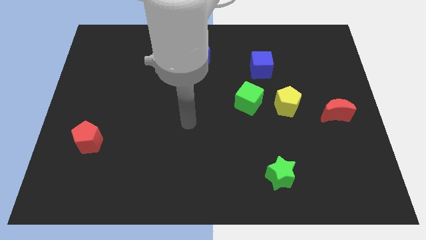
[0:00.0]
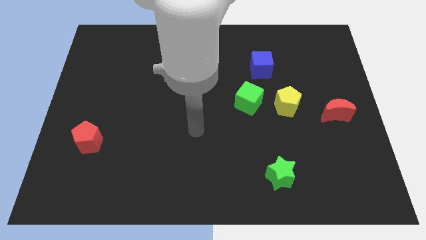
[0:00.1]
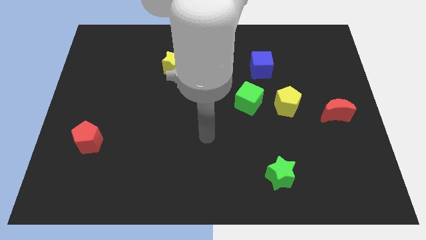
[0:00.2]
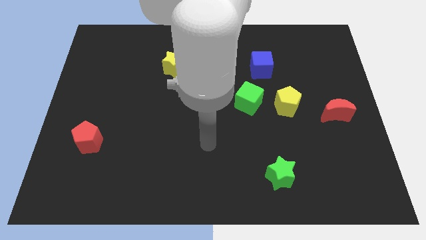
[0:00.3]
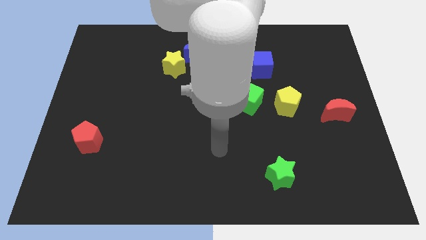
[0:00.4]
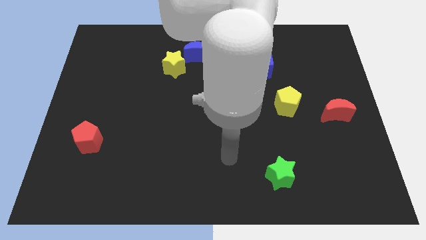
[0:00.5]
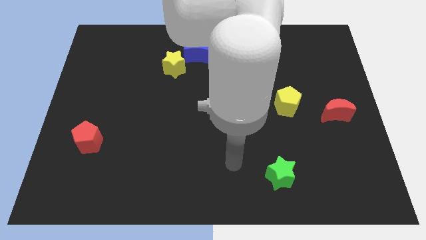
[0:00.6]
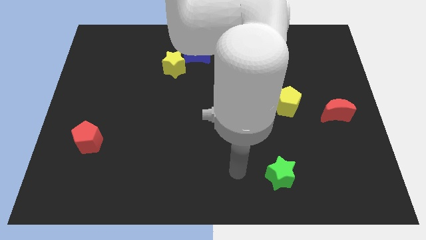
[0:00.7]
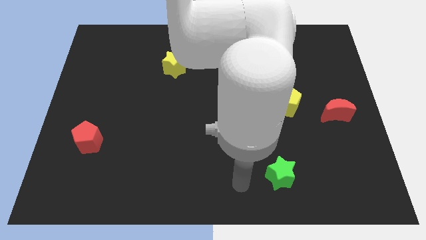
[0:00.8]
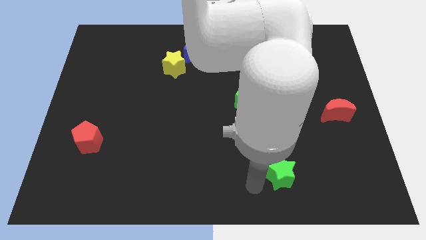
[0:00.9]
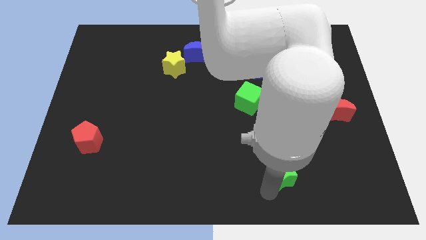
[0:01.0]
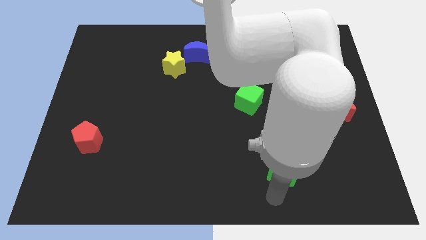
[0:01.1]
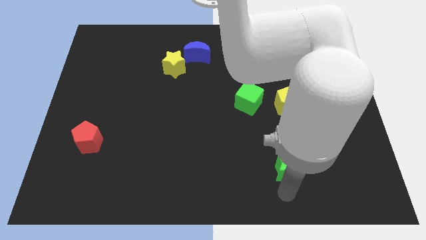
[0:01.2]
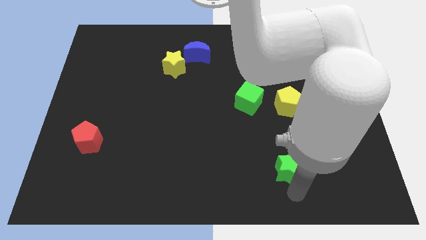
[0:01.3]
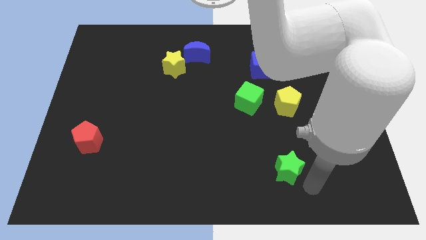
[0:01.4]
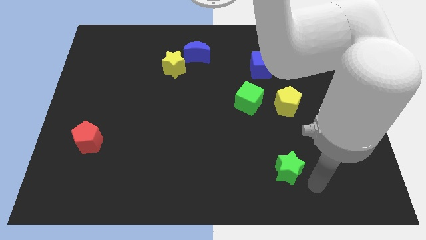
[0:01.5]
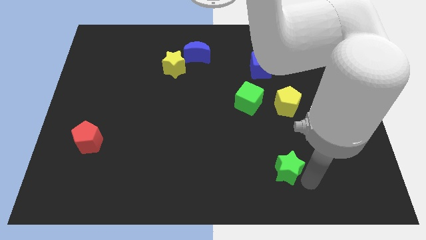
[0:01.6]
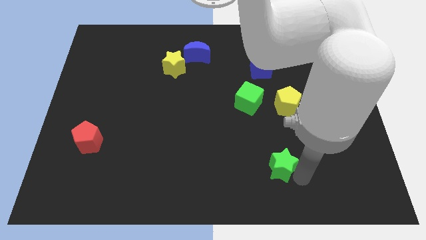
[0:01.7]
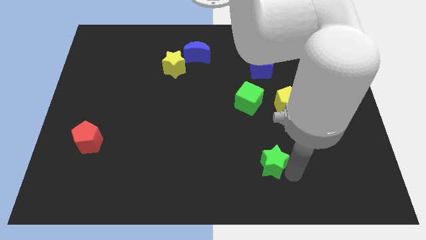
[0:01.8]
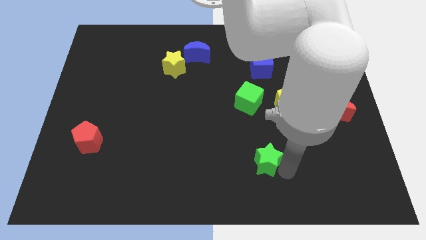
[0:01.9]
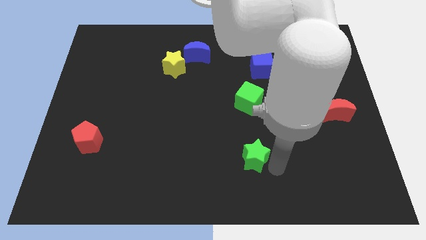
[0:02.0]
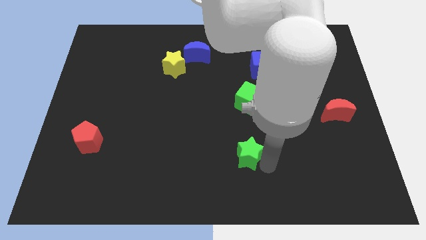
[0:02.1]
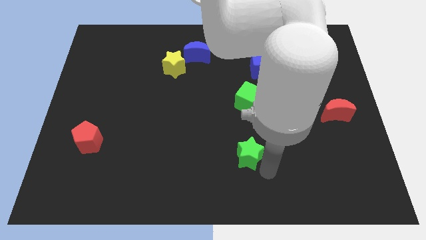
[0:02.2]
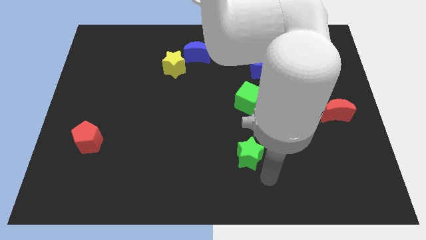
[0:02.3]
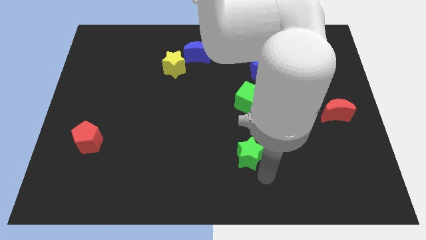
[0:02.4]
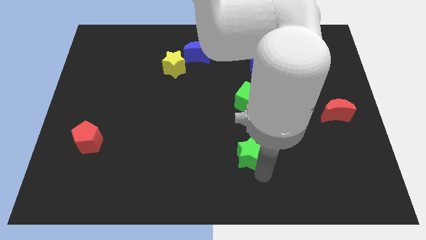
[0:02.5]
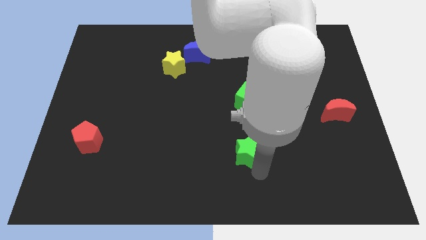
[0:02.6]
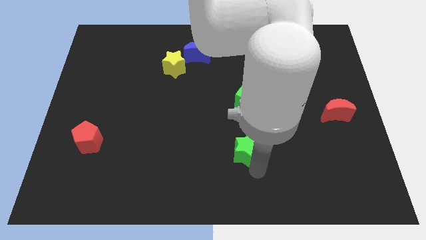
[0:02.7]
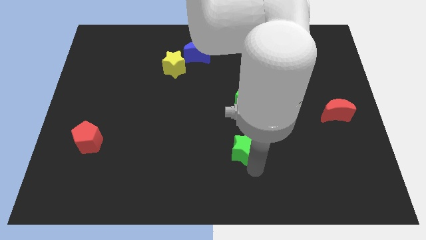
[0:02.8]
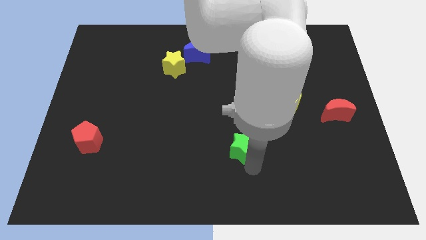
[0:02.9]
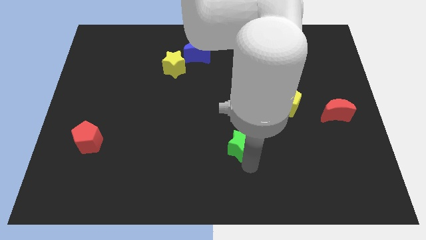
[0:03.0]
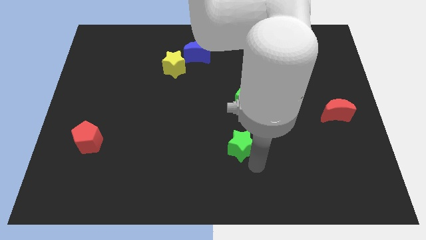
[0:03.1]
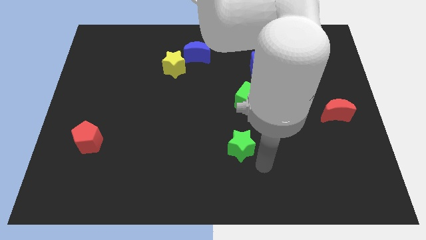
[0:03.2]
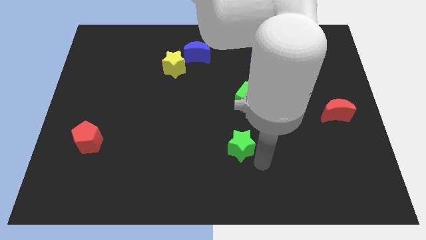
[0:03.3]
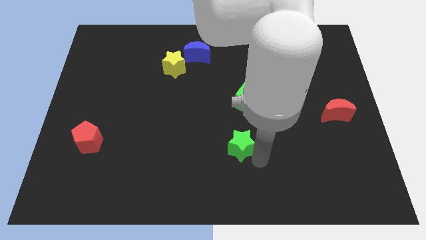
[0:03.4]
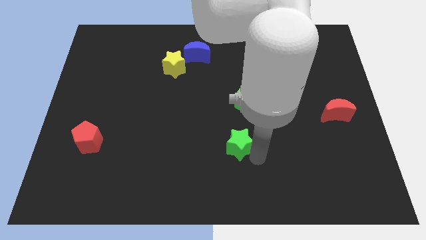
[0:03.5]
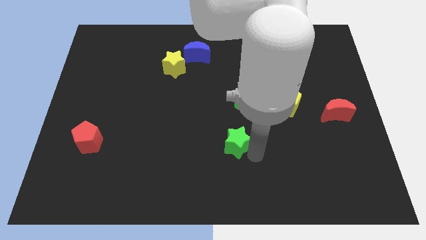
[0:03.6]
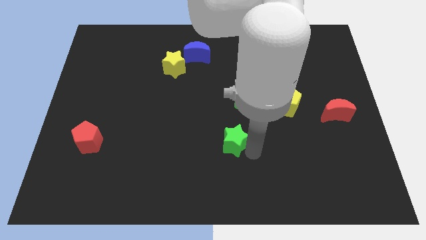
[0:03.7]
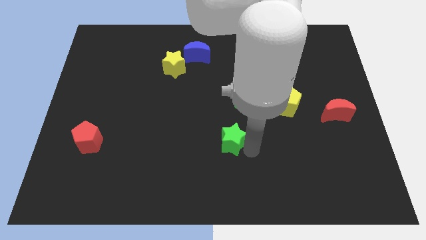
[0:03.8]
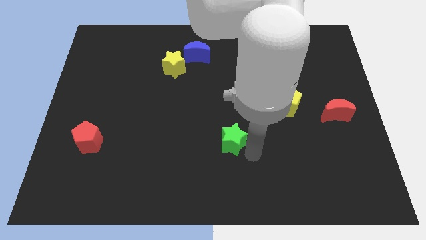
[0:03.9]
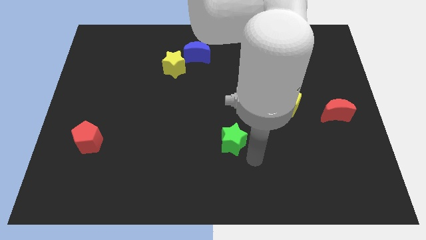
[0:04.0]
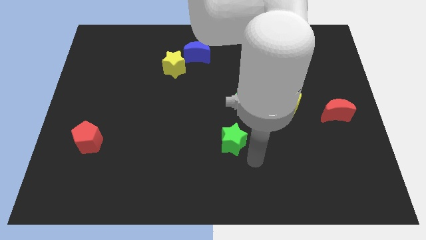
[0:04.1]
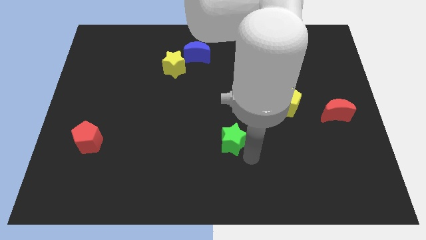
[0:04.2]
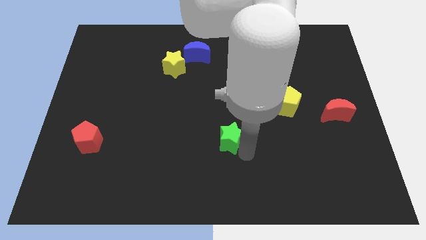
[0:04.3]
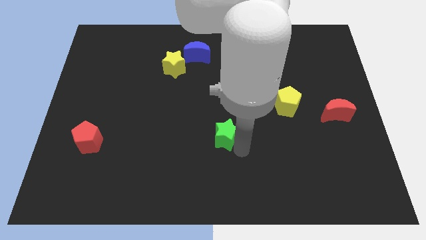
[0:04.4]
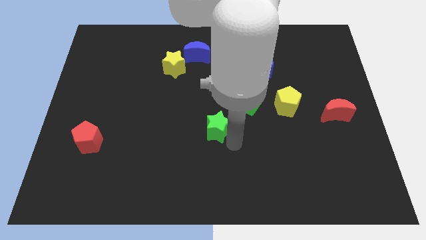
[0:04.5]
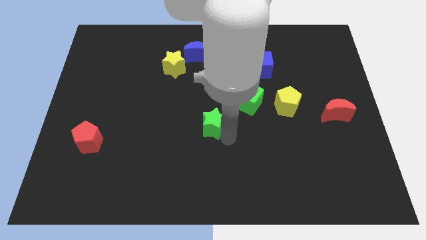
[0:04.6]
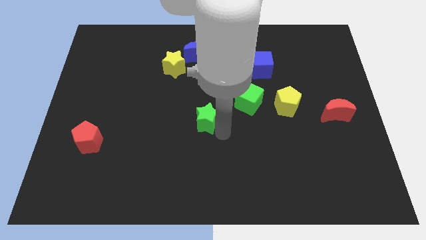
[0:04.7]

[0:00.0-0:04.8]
move the green star diagonally up and to the left

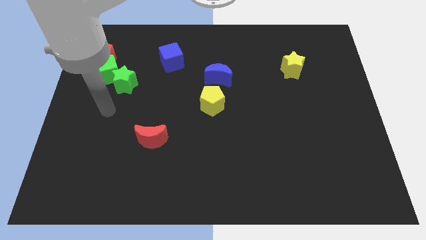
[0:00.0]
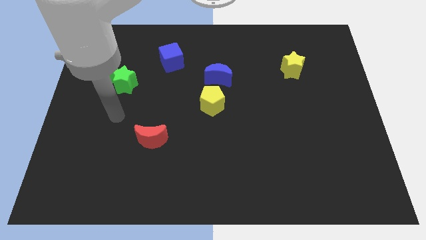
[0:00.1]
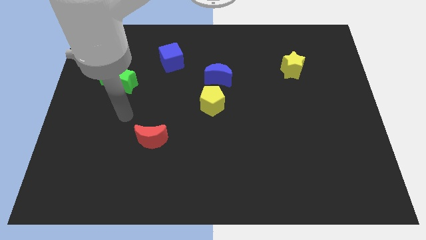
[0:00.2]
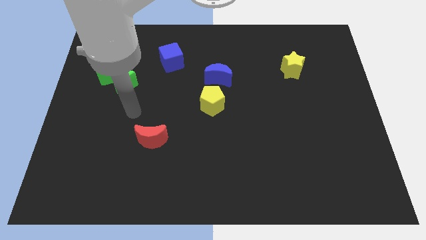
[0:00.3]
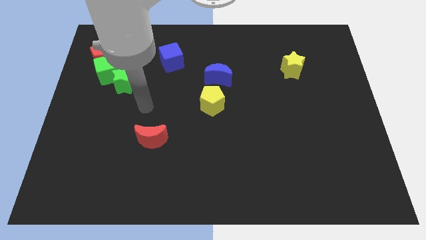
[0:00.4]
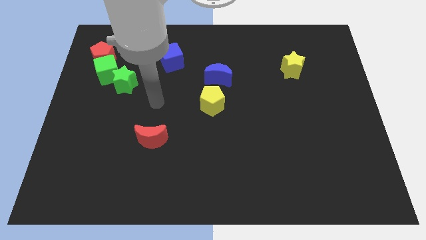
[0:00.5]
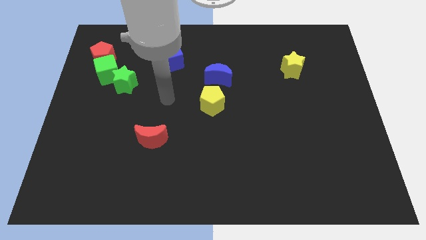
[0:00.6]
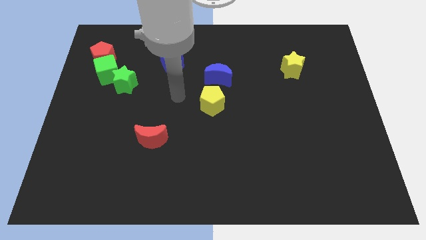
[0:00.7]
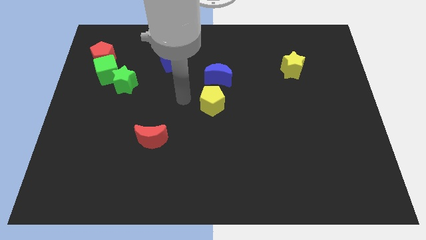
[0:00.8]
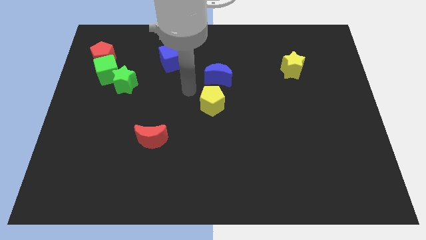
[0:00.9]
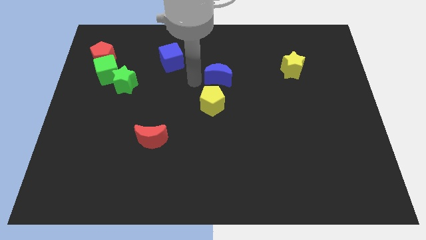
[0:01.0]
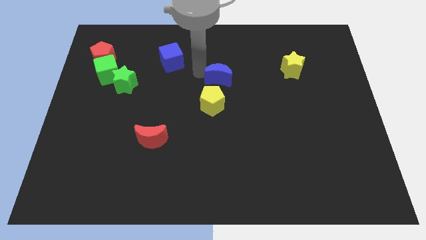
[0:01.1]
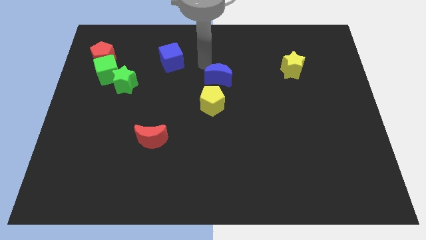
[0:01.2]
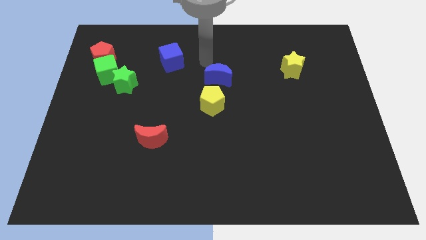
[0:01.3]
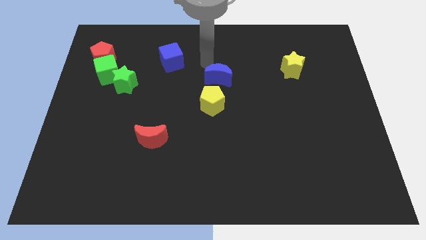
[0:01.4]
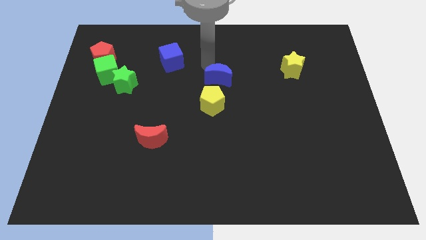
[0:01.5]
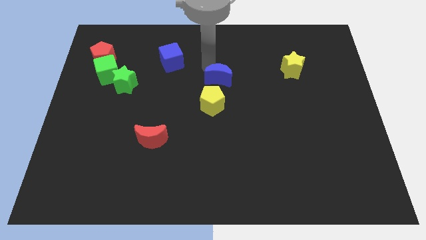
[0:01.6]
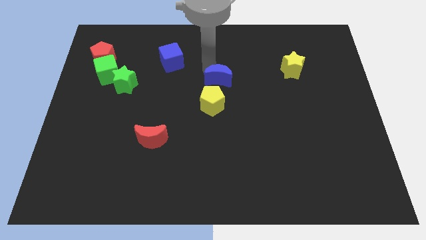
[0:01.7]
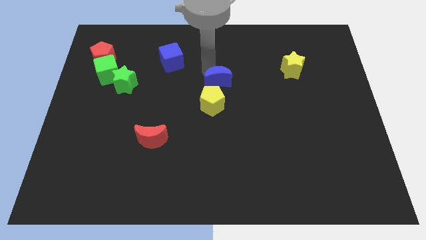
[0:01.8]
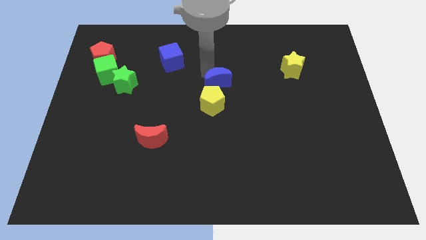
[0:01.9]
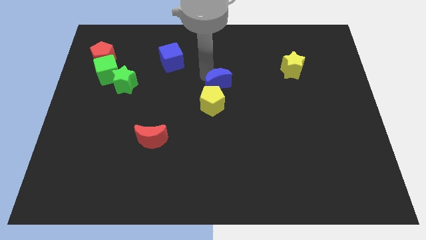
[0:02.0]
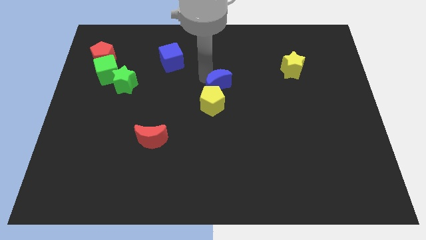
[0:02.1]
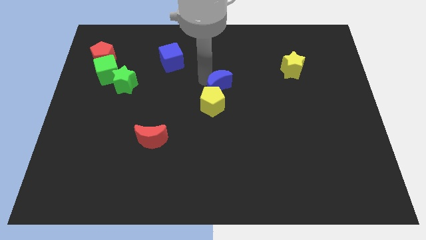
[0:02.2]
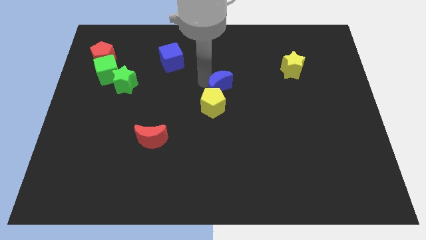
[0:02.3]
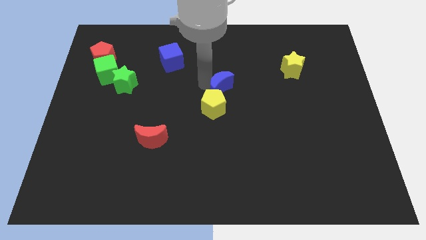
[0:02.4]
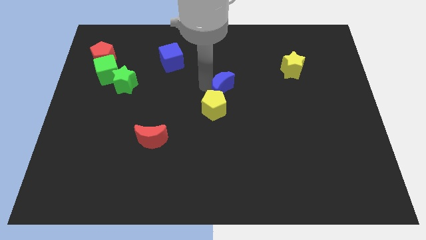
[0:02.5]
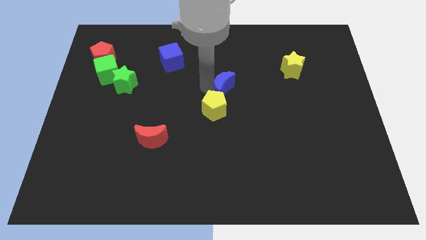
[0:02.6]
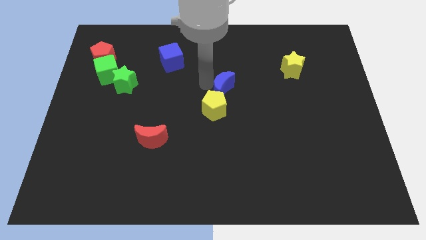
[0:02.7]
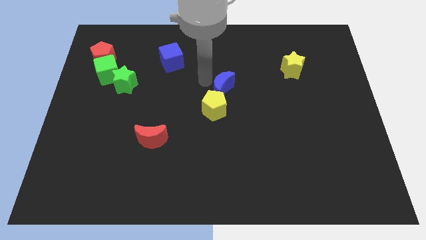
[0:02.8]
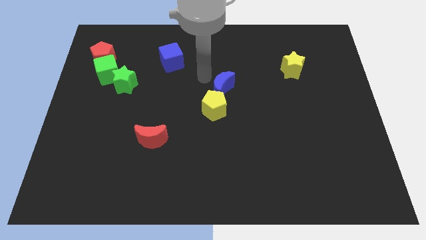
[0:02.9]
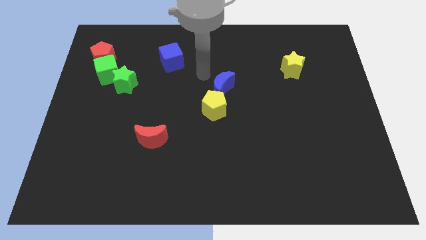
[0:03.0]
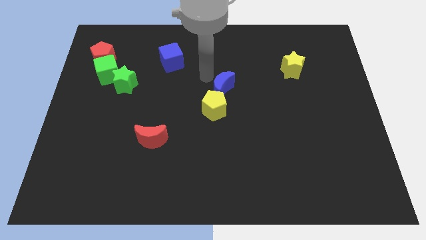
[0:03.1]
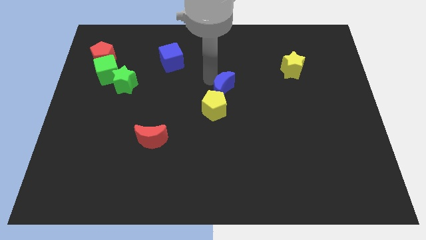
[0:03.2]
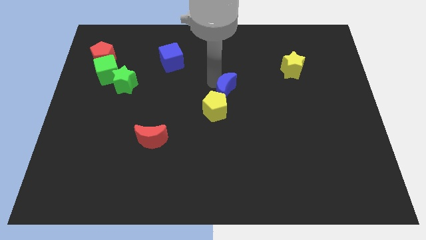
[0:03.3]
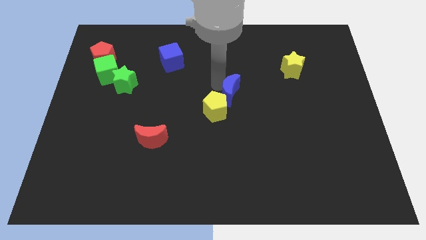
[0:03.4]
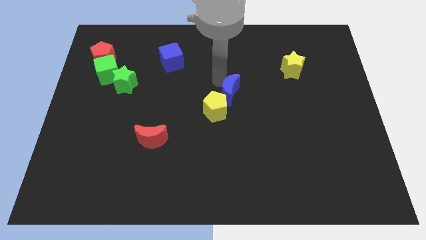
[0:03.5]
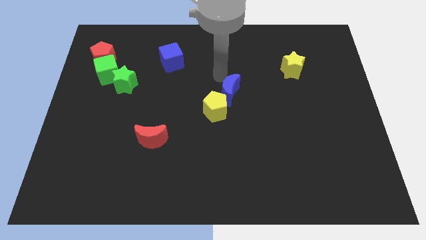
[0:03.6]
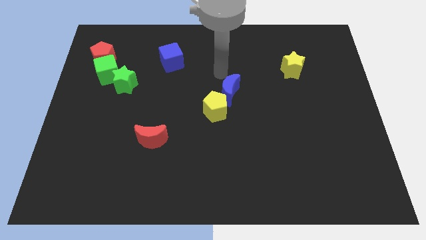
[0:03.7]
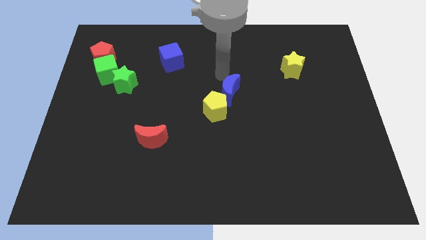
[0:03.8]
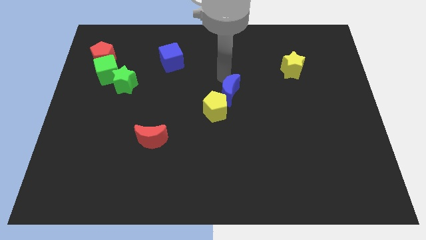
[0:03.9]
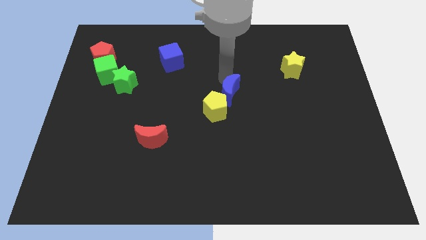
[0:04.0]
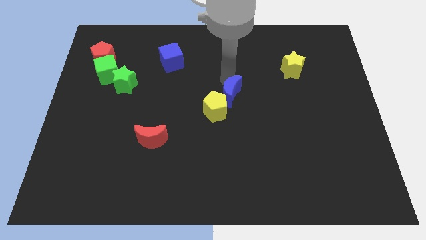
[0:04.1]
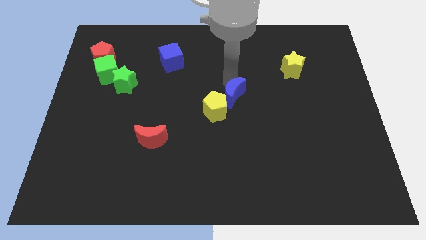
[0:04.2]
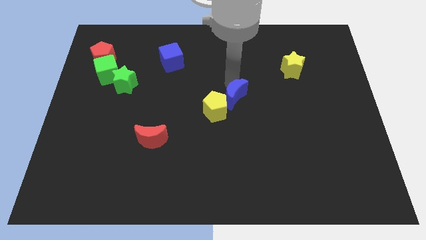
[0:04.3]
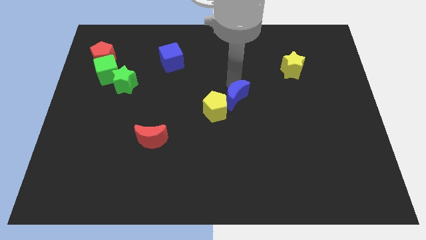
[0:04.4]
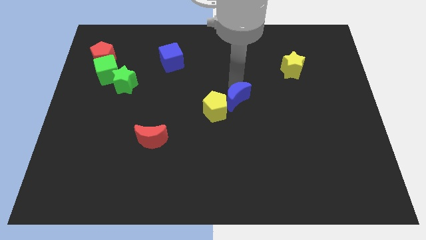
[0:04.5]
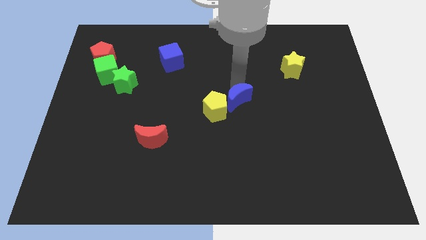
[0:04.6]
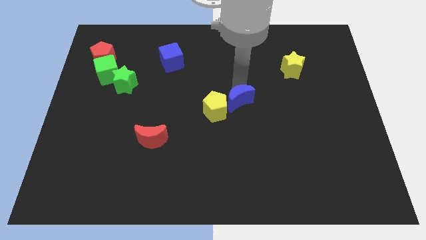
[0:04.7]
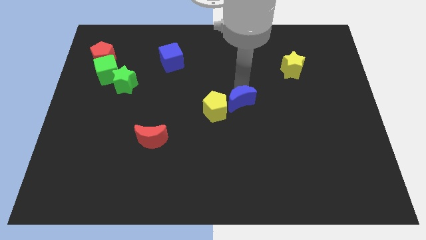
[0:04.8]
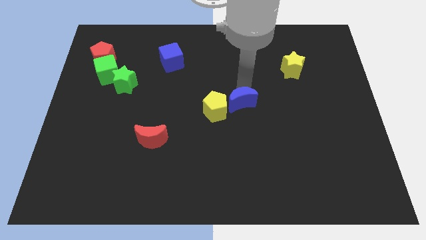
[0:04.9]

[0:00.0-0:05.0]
move the blue moon a little downwards
